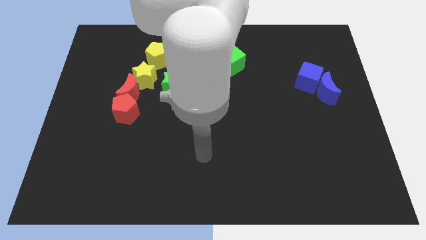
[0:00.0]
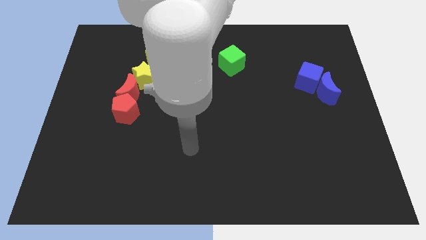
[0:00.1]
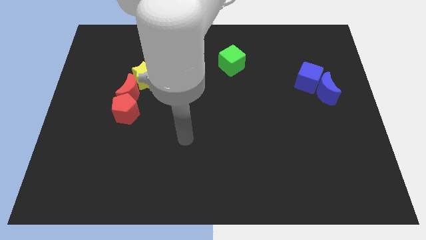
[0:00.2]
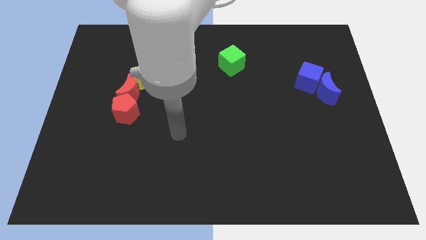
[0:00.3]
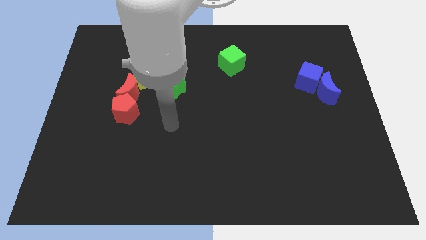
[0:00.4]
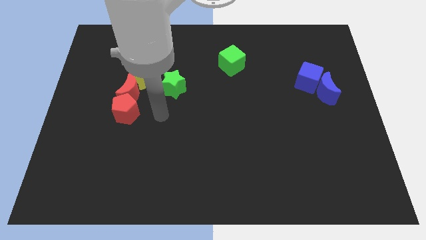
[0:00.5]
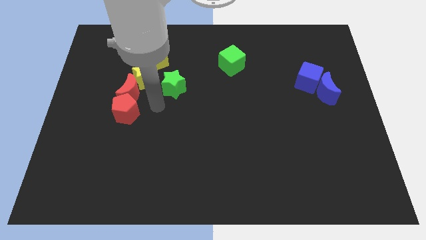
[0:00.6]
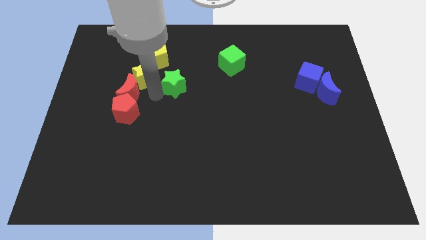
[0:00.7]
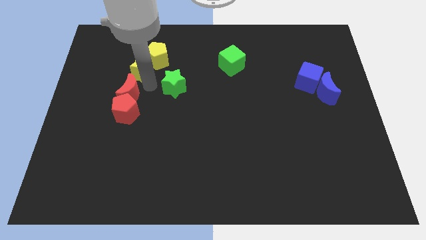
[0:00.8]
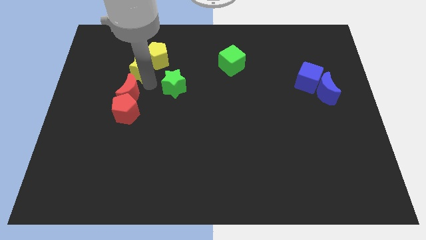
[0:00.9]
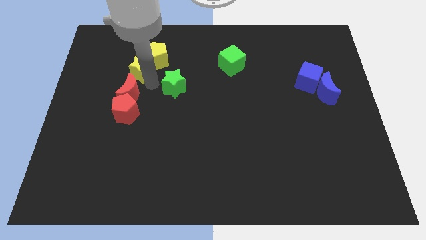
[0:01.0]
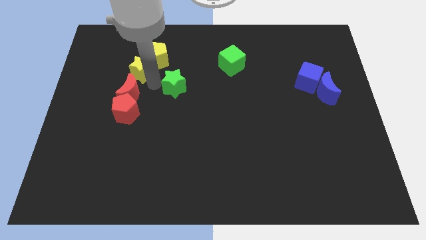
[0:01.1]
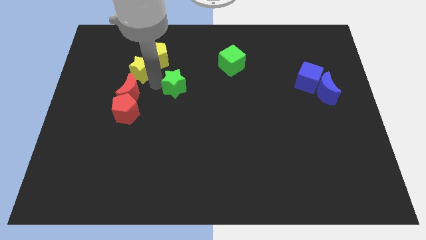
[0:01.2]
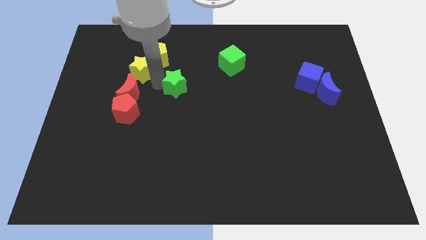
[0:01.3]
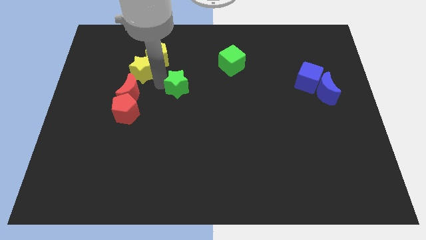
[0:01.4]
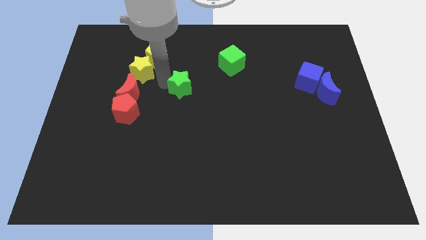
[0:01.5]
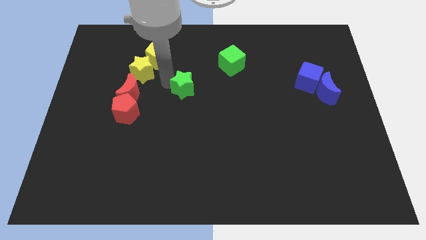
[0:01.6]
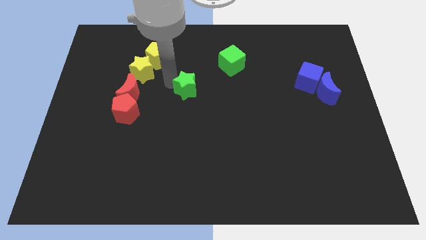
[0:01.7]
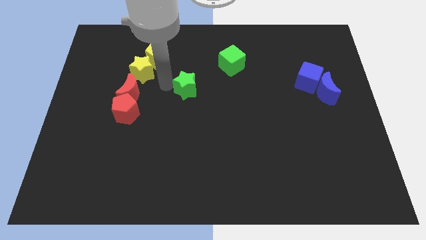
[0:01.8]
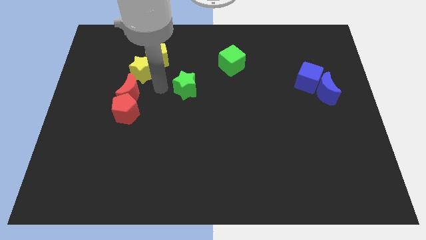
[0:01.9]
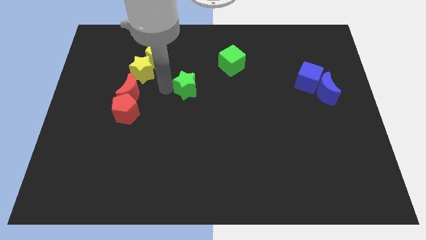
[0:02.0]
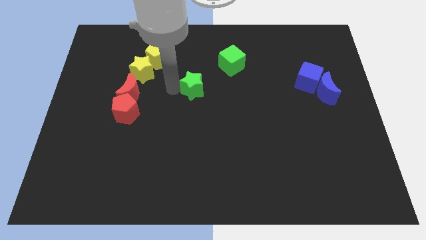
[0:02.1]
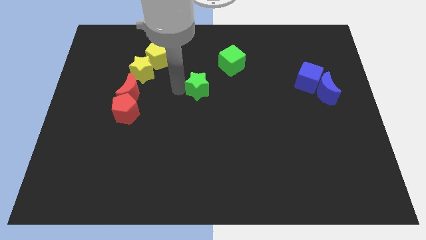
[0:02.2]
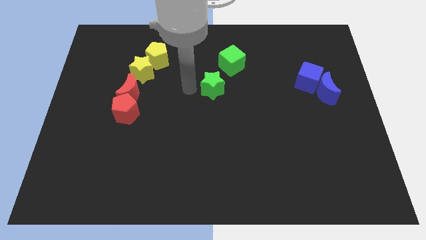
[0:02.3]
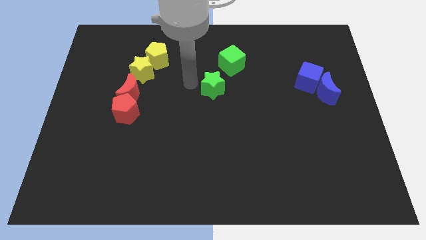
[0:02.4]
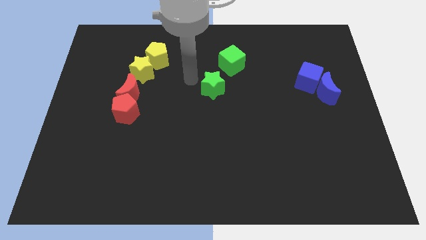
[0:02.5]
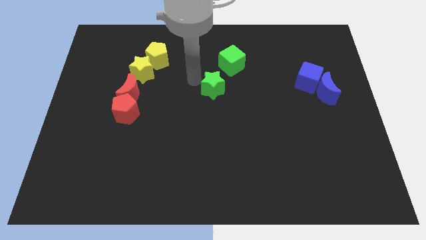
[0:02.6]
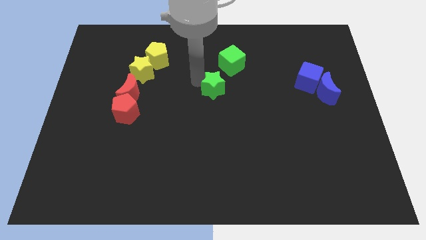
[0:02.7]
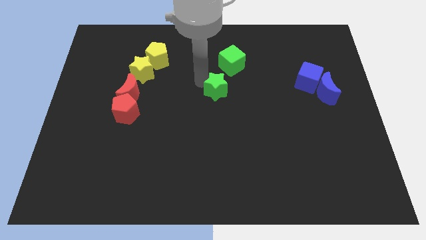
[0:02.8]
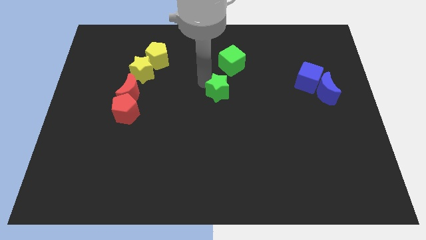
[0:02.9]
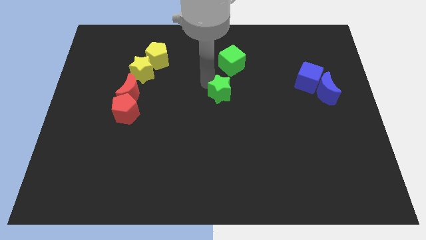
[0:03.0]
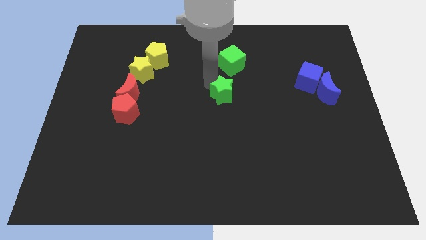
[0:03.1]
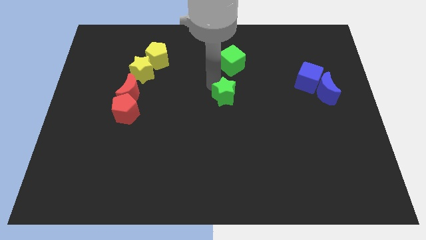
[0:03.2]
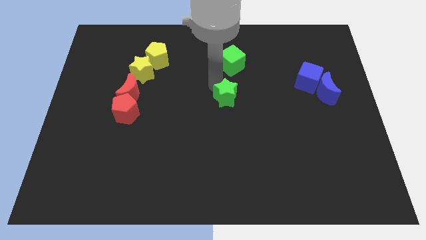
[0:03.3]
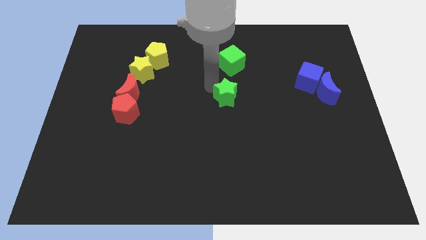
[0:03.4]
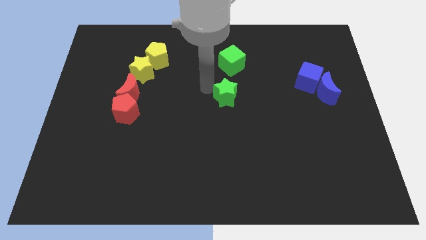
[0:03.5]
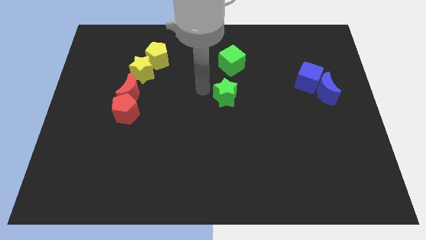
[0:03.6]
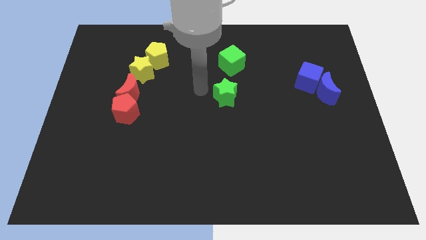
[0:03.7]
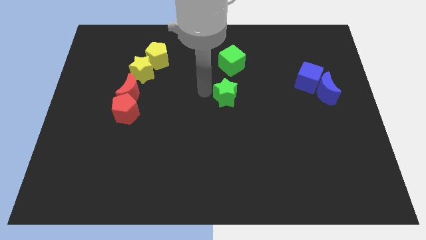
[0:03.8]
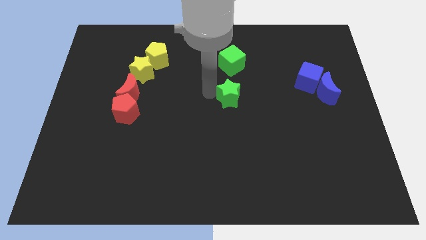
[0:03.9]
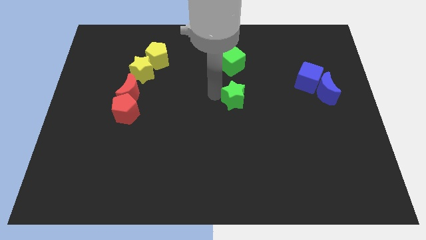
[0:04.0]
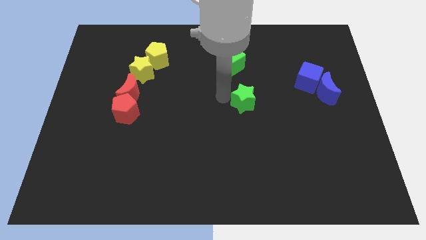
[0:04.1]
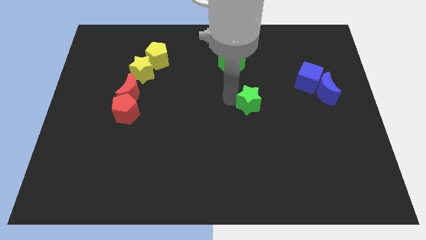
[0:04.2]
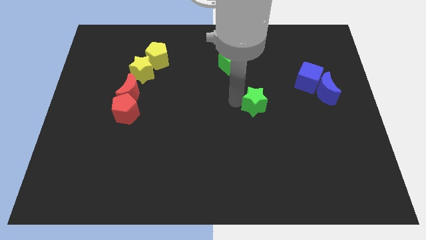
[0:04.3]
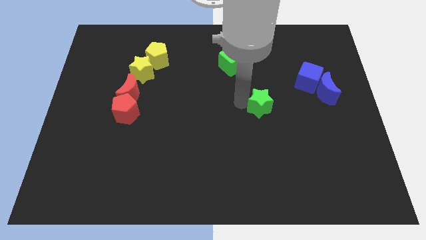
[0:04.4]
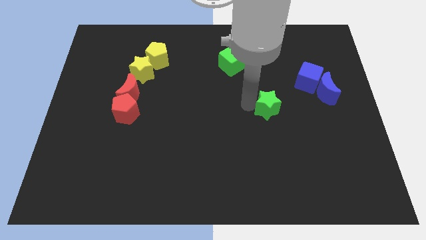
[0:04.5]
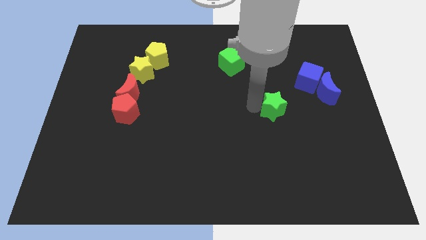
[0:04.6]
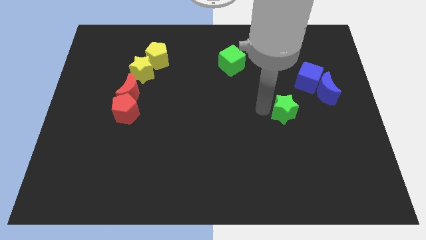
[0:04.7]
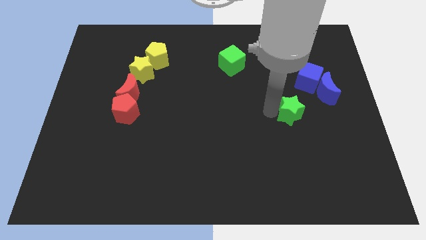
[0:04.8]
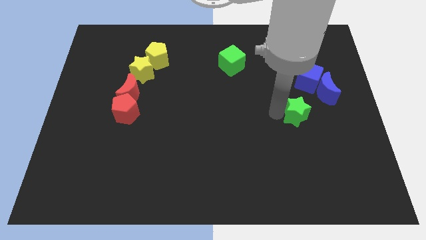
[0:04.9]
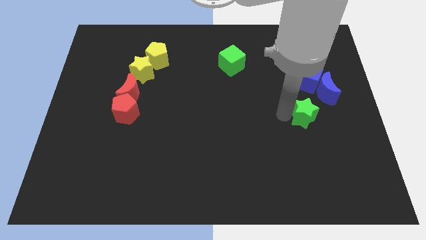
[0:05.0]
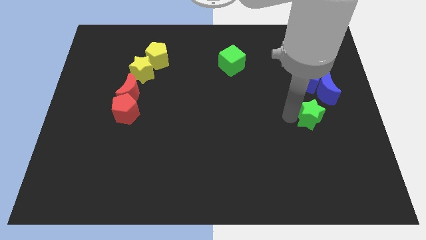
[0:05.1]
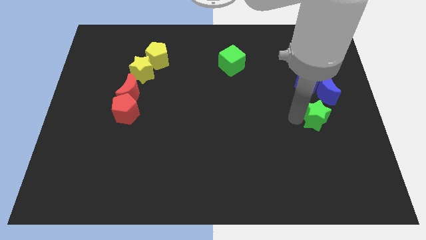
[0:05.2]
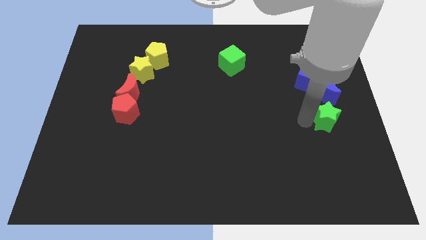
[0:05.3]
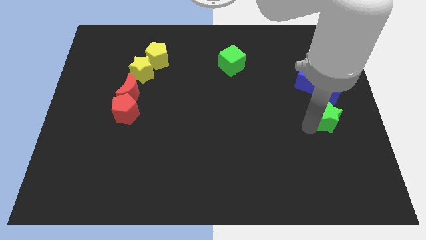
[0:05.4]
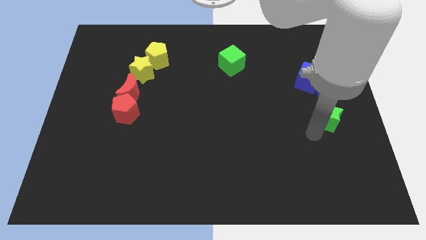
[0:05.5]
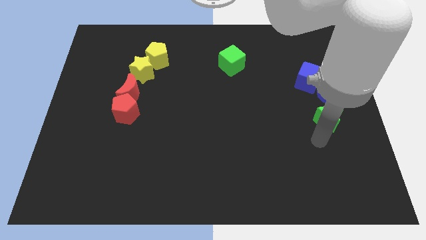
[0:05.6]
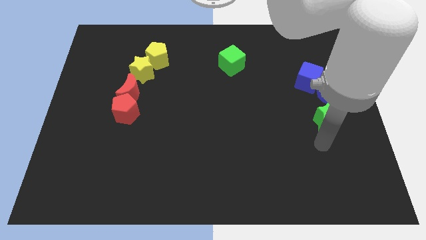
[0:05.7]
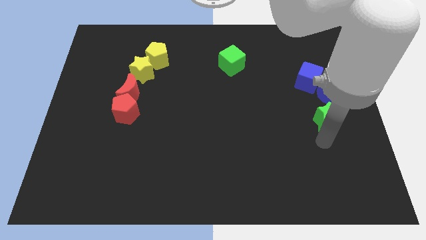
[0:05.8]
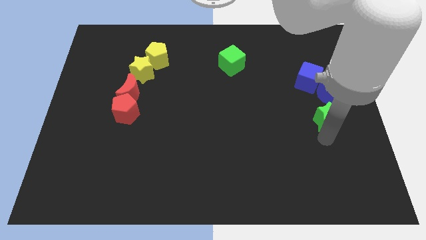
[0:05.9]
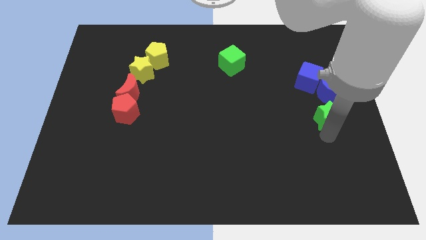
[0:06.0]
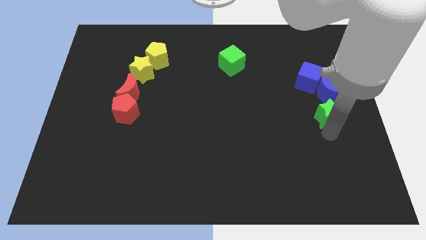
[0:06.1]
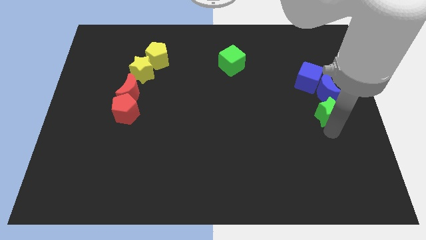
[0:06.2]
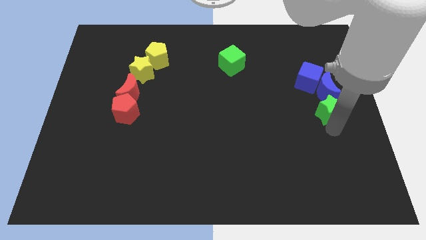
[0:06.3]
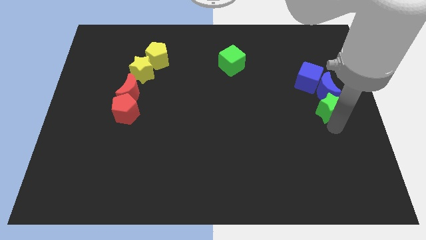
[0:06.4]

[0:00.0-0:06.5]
slide the green star diagonally down and to the right of the blue cube

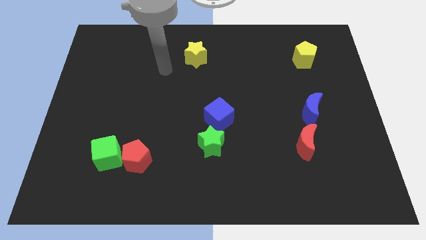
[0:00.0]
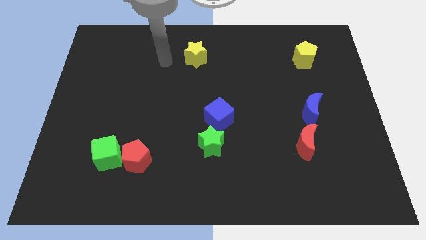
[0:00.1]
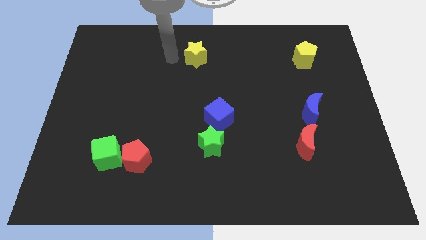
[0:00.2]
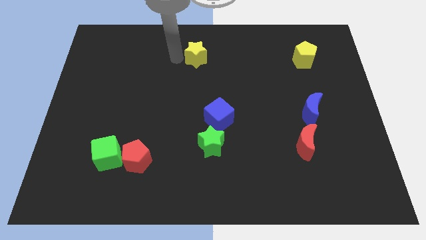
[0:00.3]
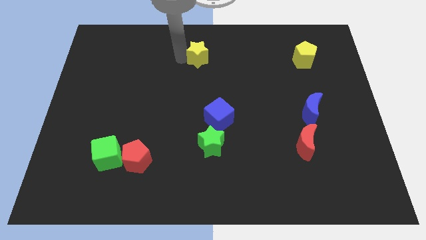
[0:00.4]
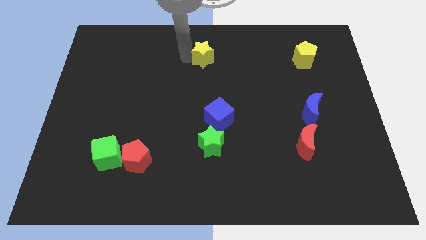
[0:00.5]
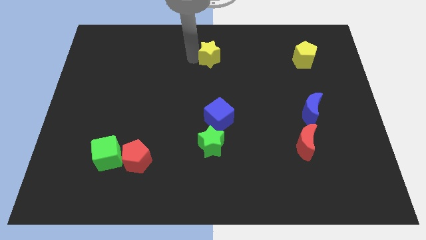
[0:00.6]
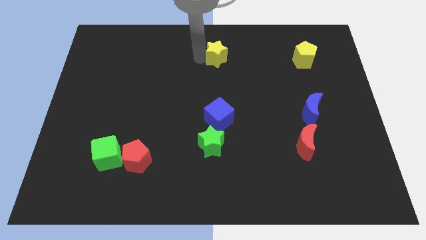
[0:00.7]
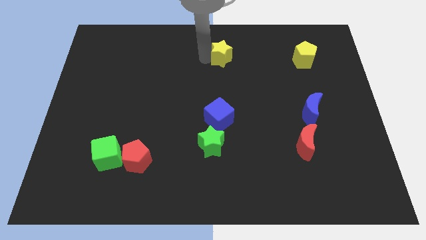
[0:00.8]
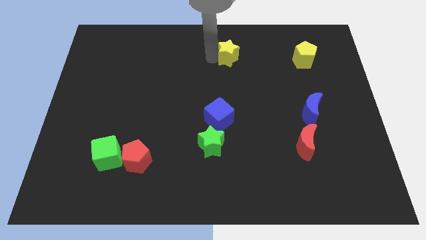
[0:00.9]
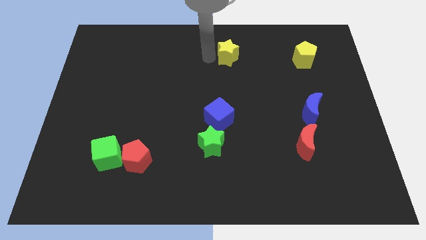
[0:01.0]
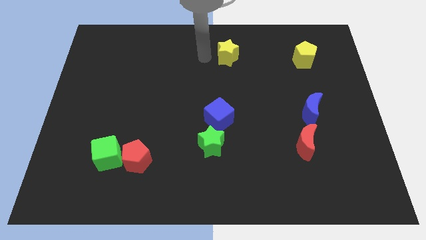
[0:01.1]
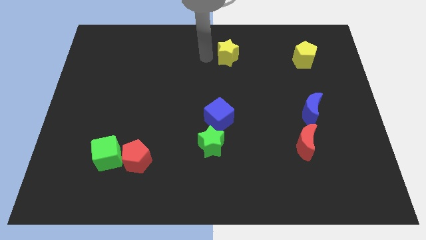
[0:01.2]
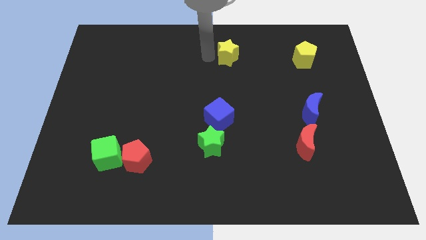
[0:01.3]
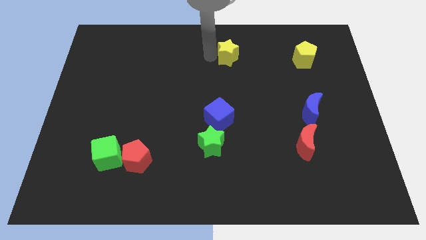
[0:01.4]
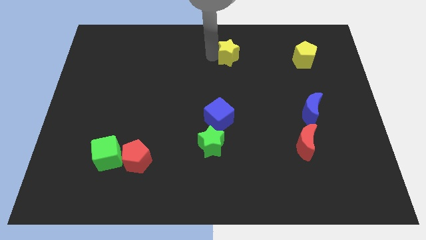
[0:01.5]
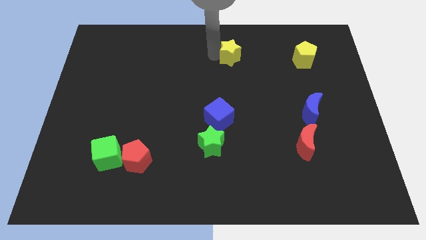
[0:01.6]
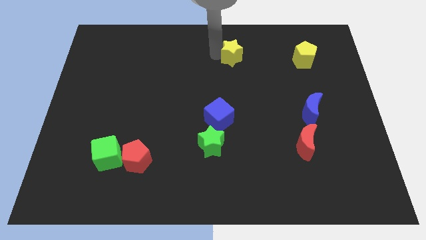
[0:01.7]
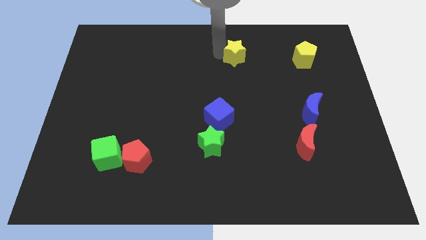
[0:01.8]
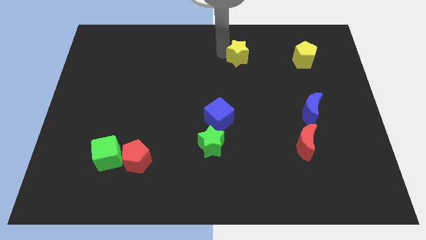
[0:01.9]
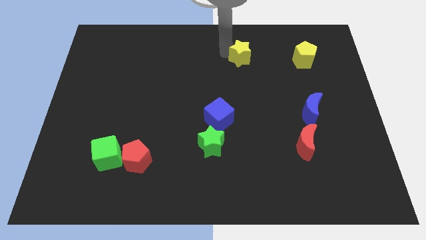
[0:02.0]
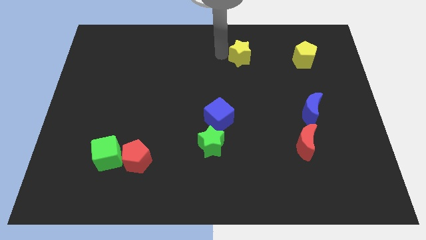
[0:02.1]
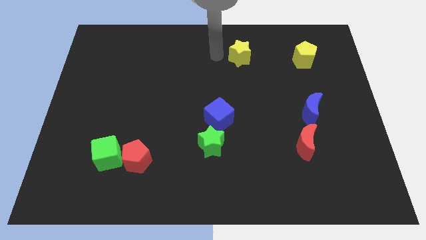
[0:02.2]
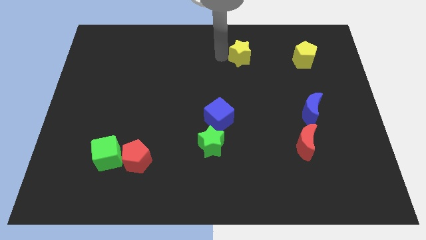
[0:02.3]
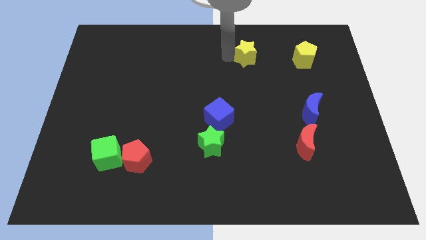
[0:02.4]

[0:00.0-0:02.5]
slide the yellow star to the left side of the yellow pentagon
